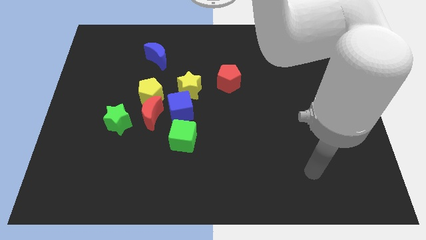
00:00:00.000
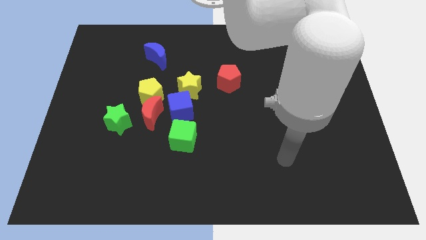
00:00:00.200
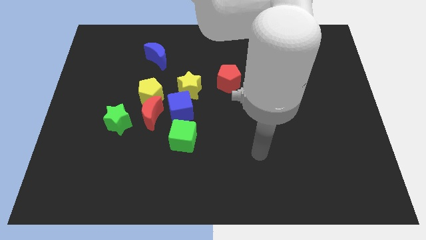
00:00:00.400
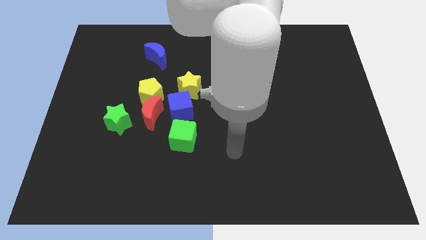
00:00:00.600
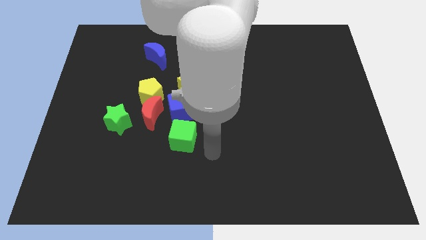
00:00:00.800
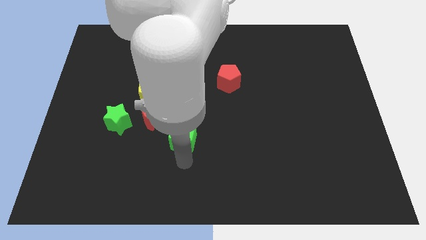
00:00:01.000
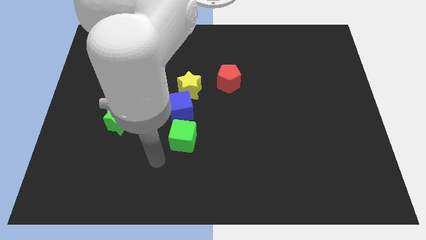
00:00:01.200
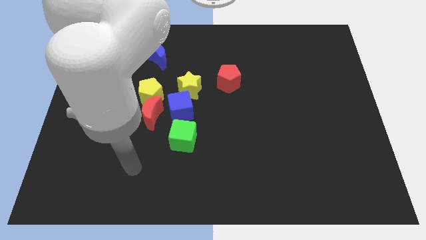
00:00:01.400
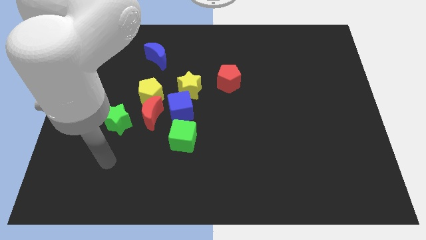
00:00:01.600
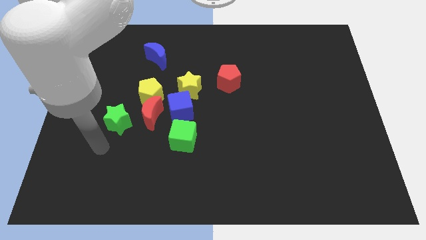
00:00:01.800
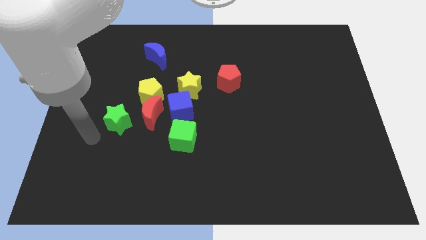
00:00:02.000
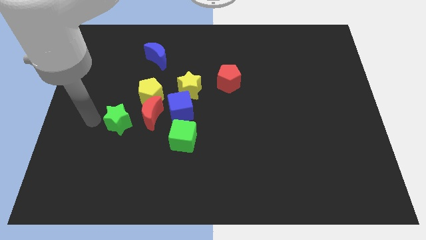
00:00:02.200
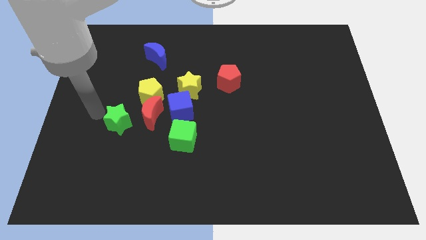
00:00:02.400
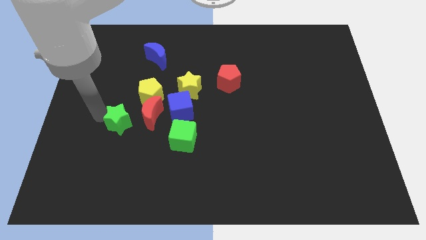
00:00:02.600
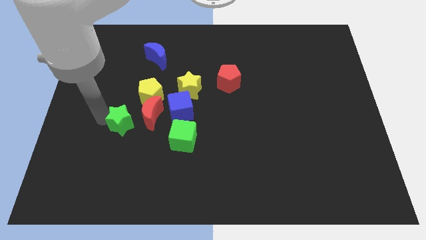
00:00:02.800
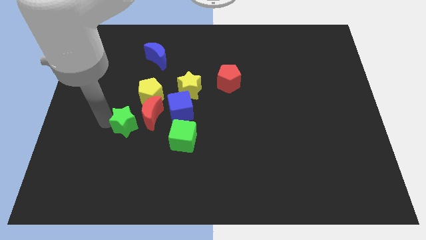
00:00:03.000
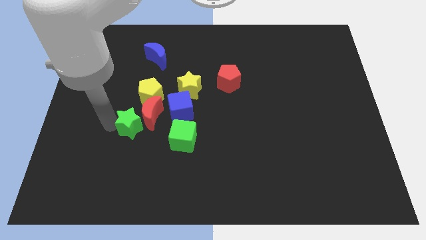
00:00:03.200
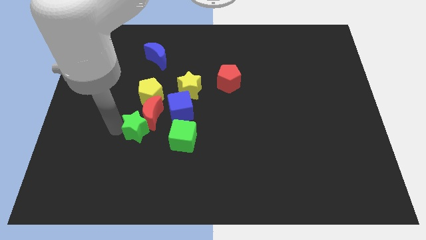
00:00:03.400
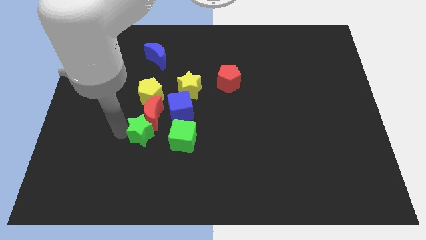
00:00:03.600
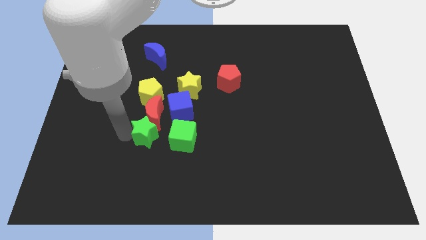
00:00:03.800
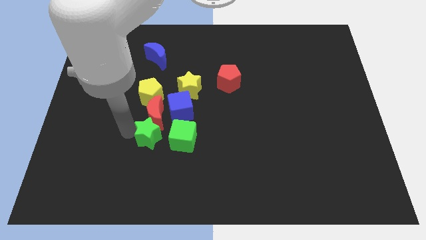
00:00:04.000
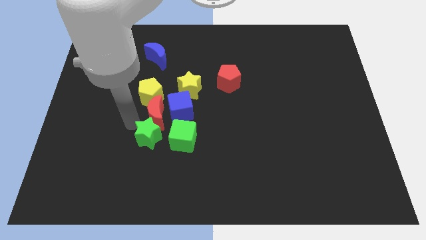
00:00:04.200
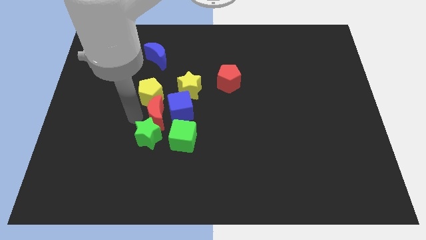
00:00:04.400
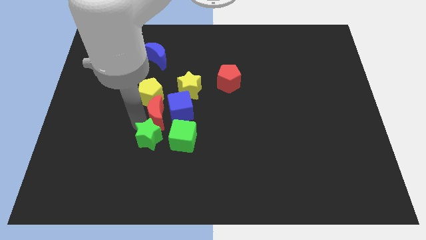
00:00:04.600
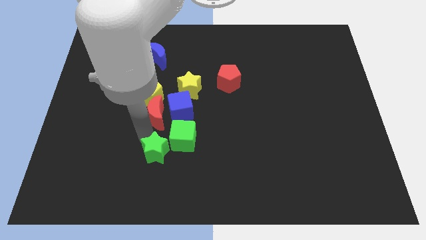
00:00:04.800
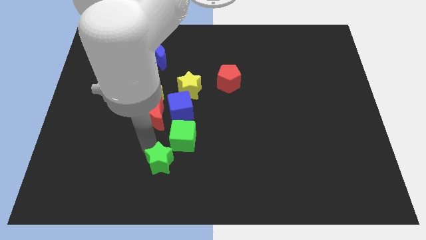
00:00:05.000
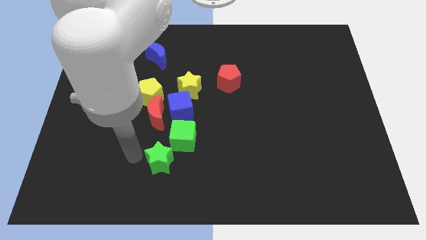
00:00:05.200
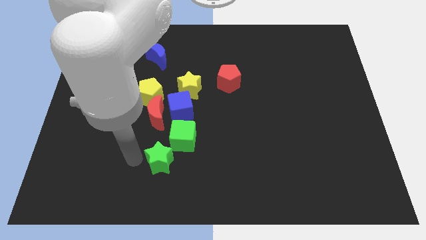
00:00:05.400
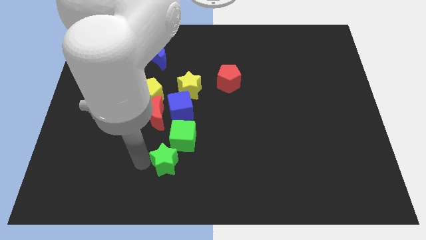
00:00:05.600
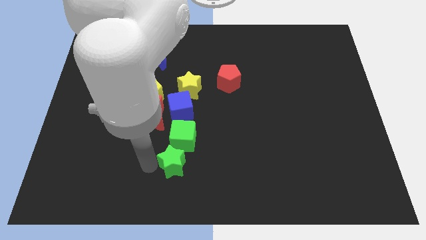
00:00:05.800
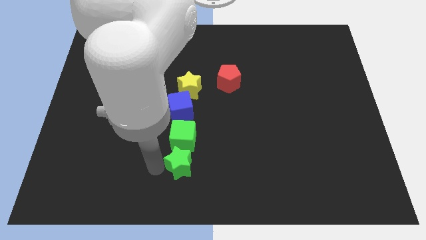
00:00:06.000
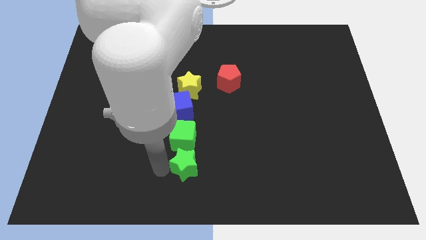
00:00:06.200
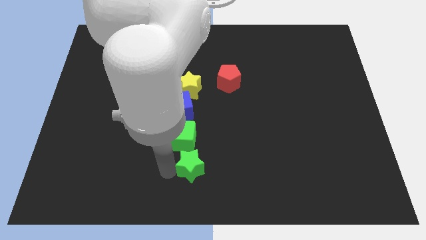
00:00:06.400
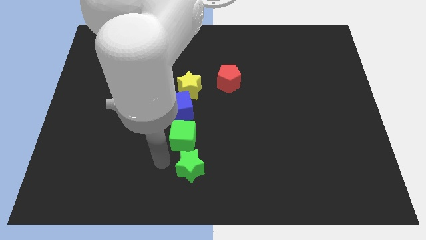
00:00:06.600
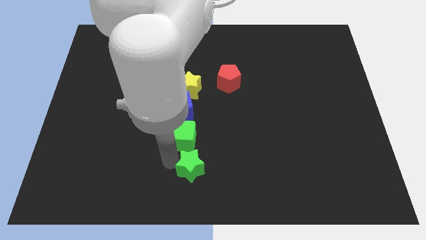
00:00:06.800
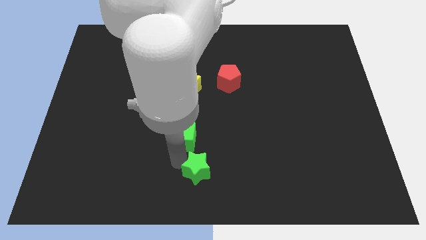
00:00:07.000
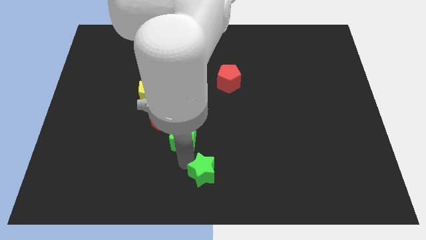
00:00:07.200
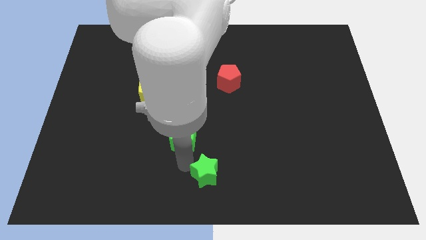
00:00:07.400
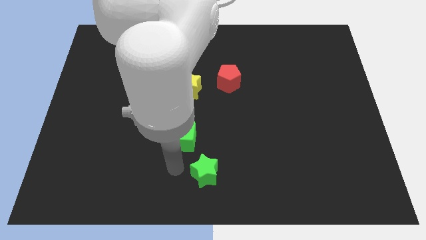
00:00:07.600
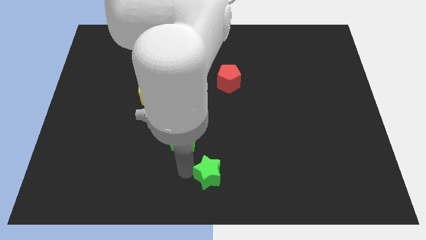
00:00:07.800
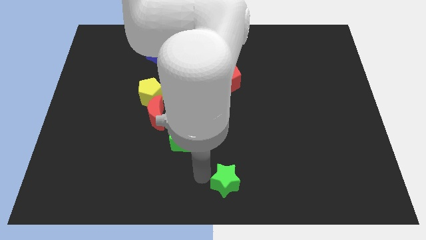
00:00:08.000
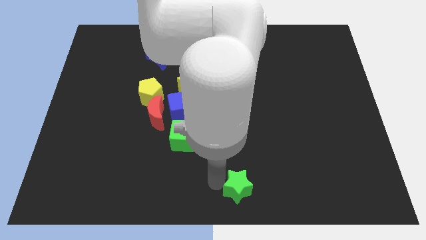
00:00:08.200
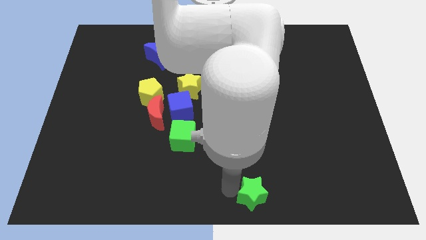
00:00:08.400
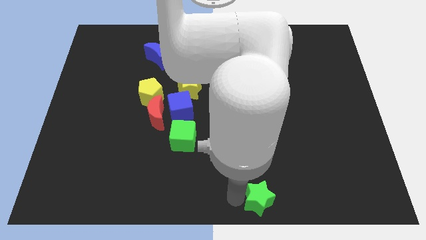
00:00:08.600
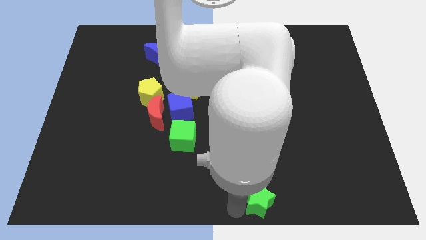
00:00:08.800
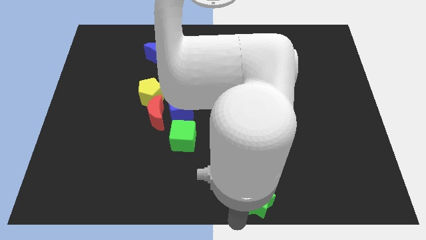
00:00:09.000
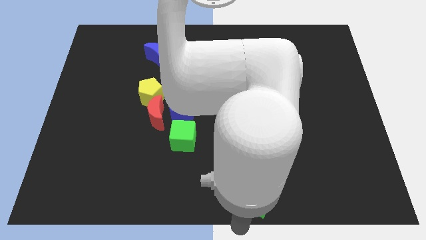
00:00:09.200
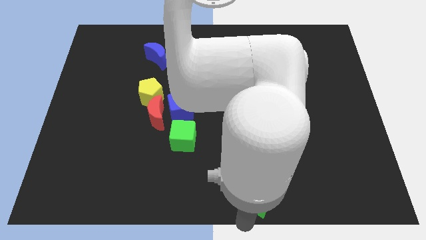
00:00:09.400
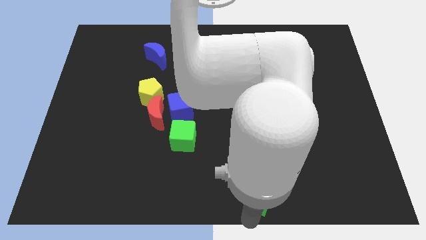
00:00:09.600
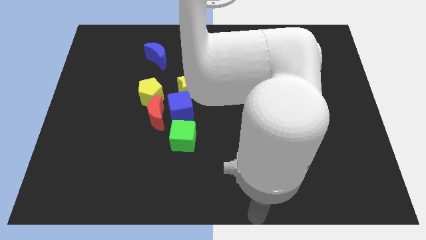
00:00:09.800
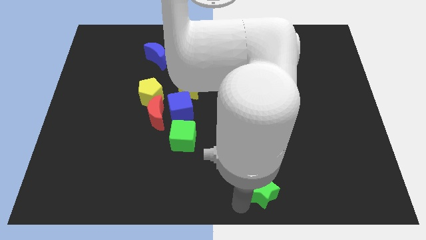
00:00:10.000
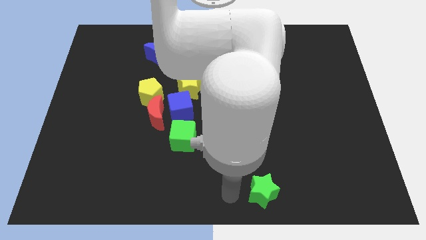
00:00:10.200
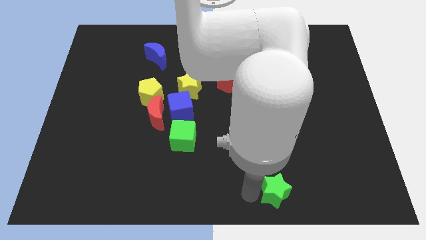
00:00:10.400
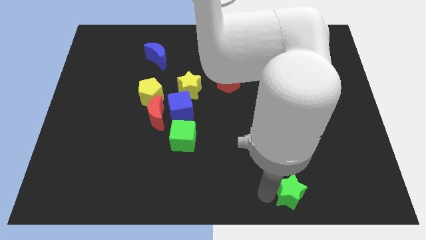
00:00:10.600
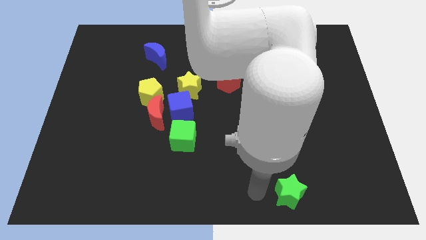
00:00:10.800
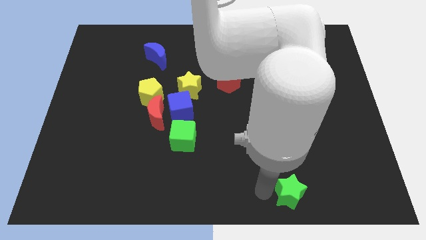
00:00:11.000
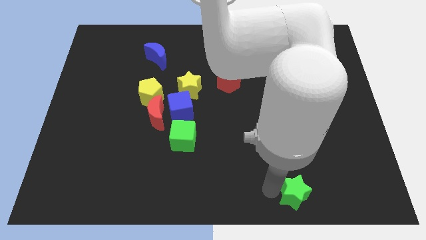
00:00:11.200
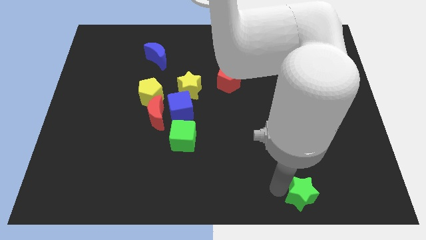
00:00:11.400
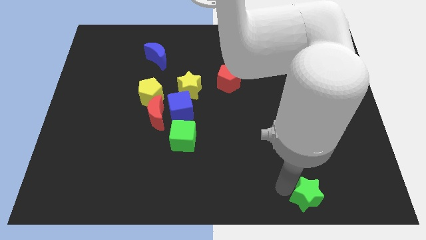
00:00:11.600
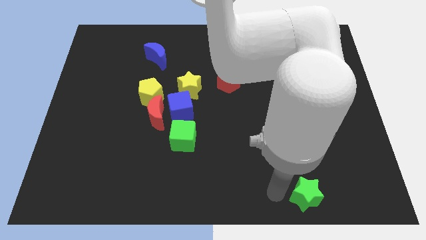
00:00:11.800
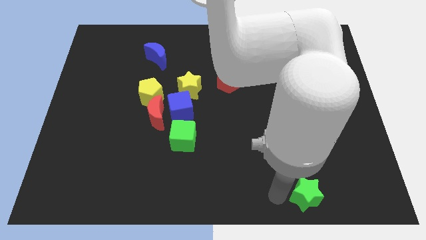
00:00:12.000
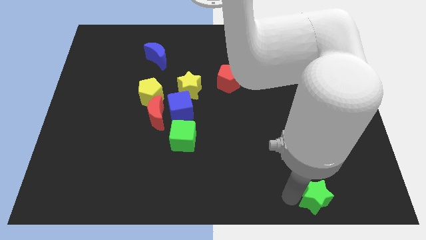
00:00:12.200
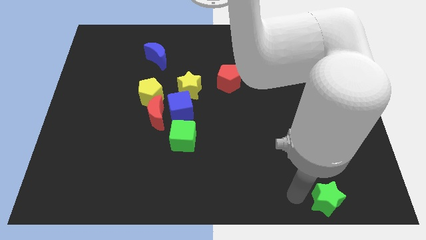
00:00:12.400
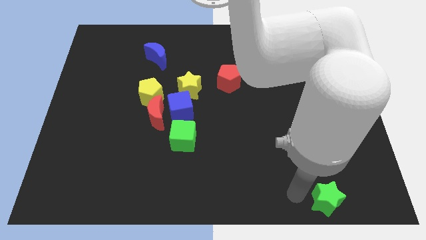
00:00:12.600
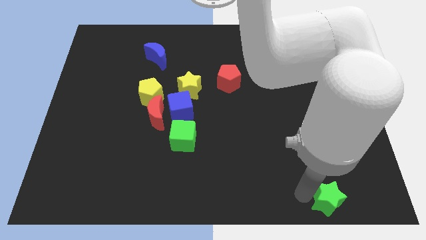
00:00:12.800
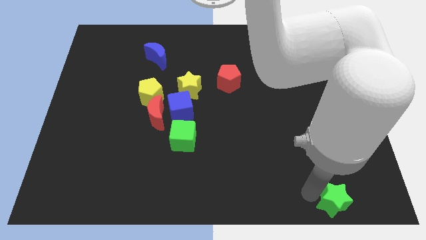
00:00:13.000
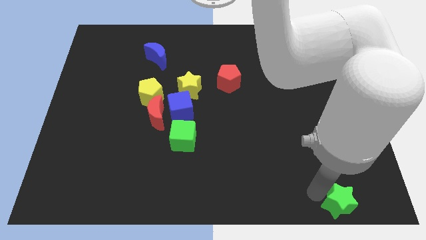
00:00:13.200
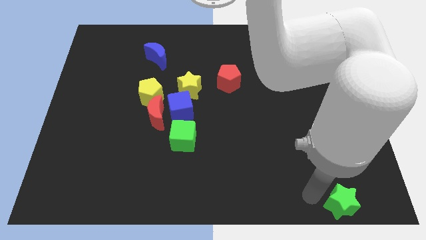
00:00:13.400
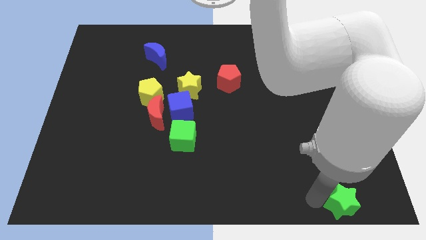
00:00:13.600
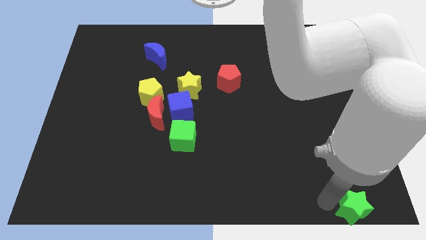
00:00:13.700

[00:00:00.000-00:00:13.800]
slide the green star to the bottom right corner
